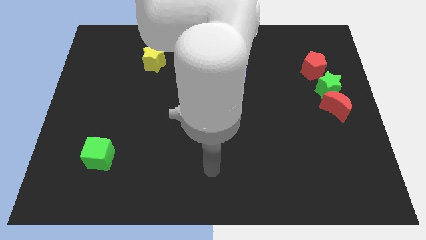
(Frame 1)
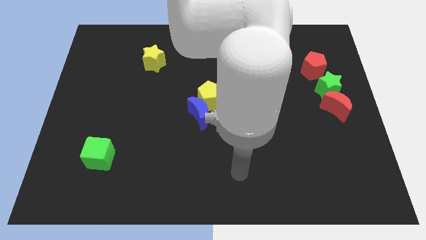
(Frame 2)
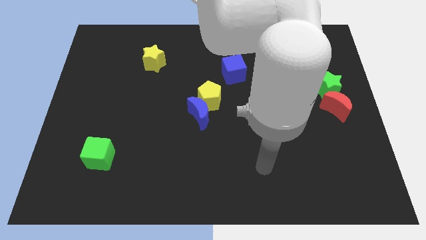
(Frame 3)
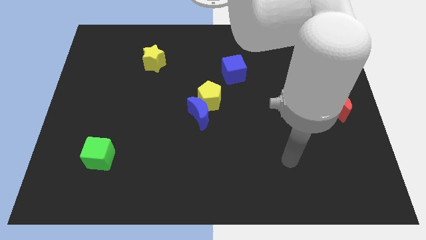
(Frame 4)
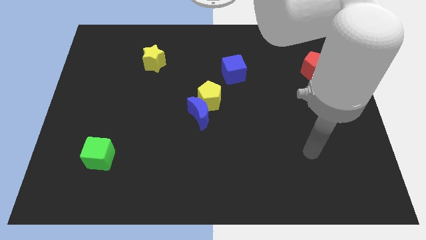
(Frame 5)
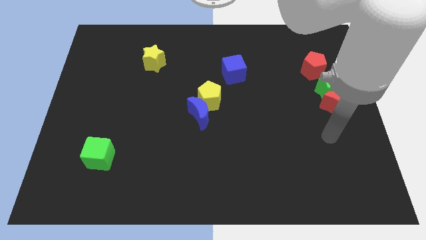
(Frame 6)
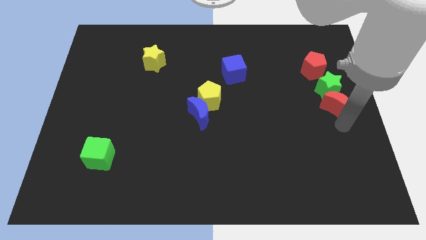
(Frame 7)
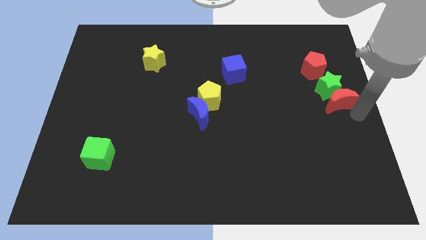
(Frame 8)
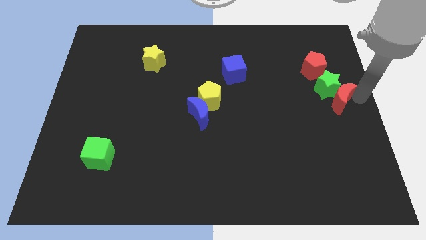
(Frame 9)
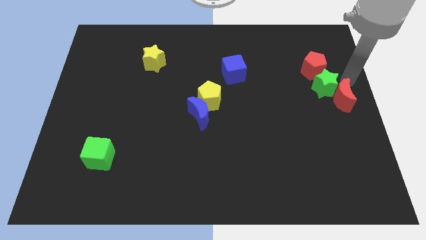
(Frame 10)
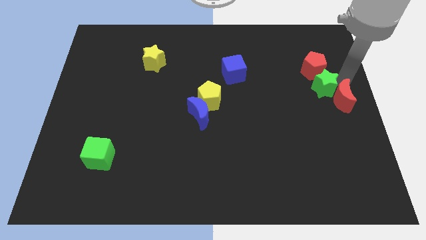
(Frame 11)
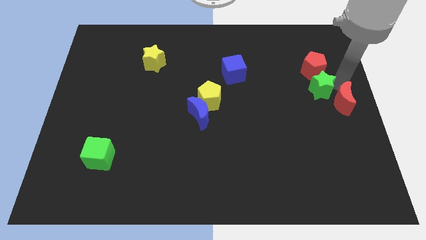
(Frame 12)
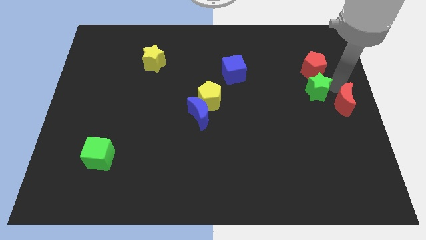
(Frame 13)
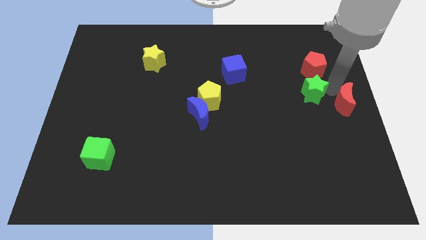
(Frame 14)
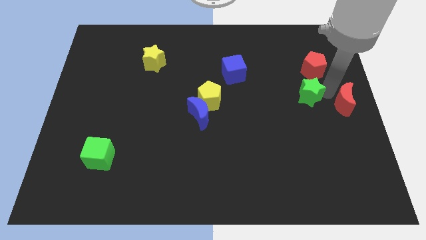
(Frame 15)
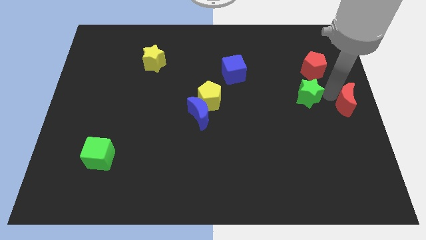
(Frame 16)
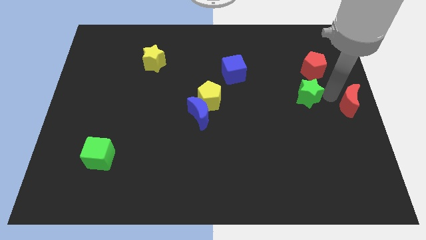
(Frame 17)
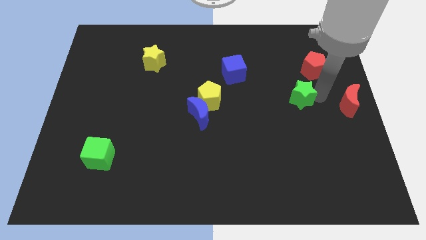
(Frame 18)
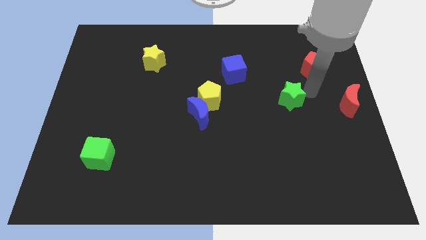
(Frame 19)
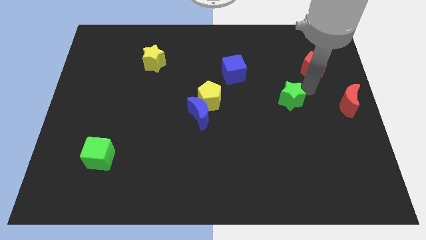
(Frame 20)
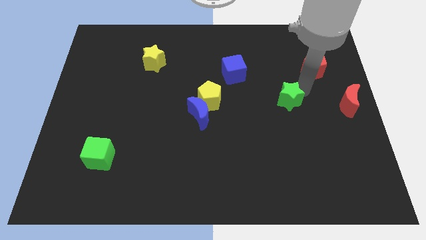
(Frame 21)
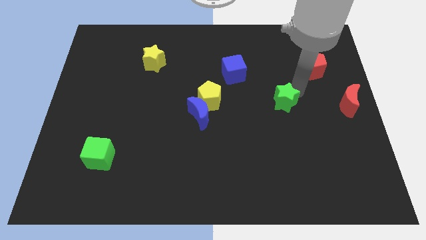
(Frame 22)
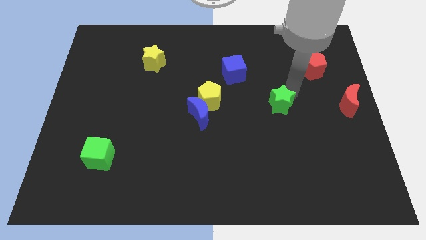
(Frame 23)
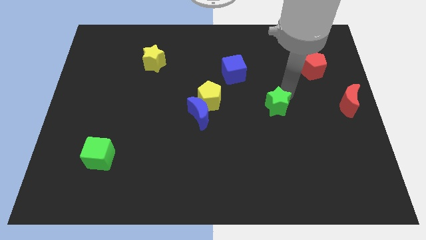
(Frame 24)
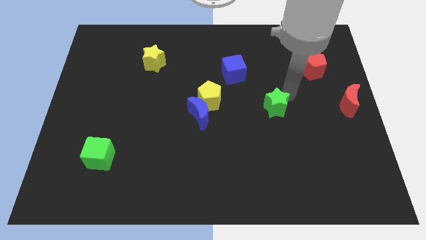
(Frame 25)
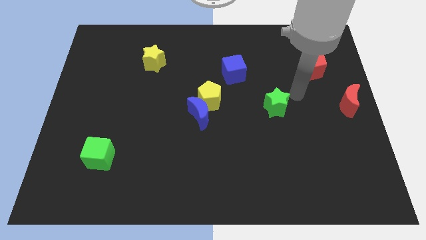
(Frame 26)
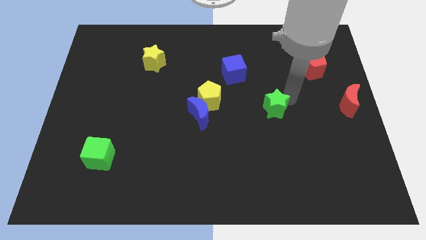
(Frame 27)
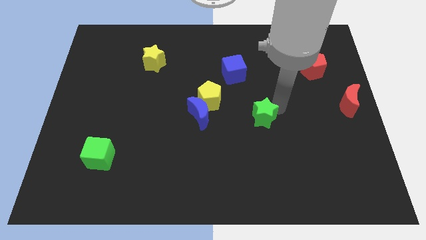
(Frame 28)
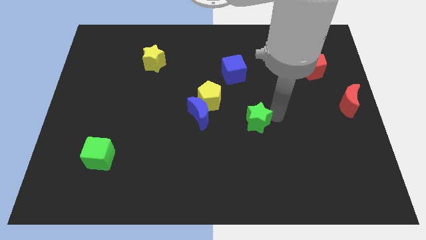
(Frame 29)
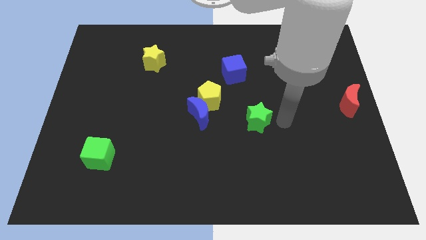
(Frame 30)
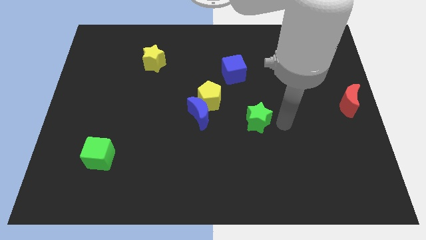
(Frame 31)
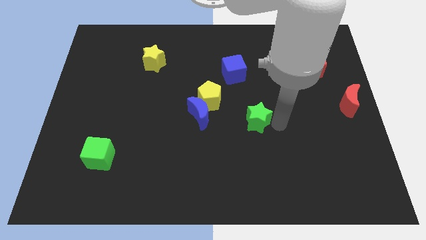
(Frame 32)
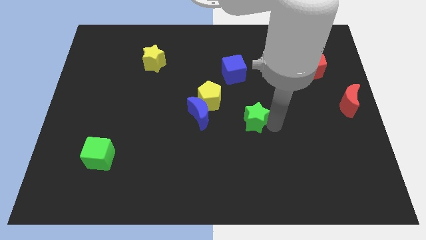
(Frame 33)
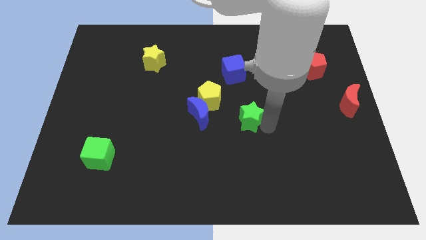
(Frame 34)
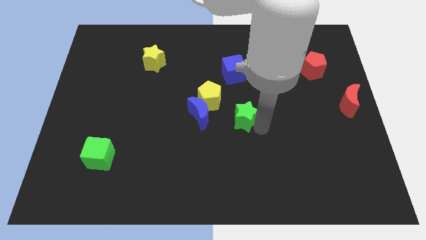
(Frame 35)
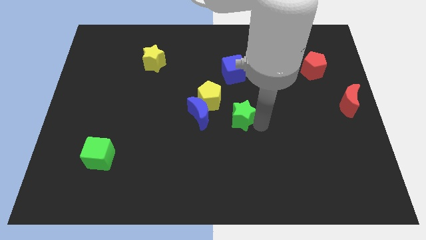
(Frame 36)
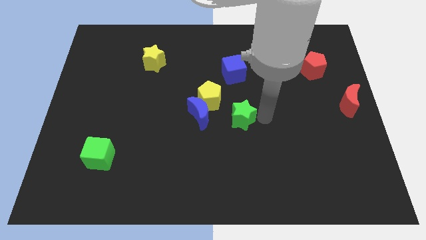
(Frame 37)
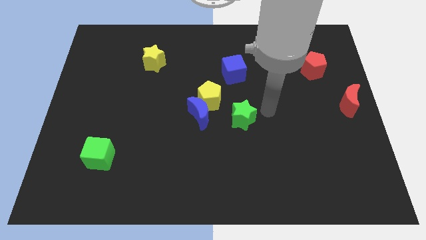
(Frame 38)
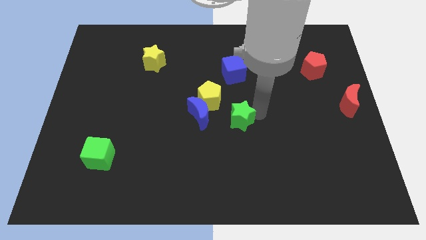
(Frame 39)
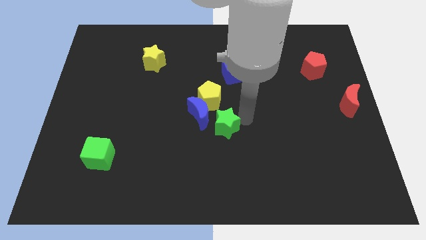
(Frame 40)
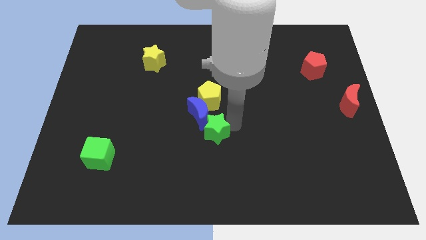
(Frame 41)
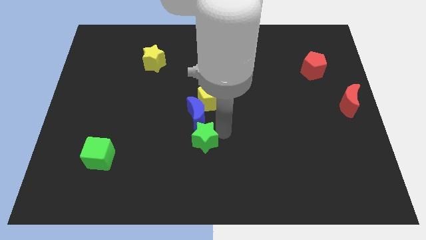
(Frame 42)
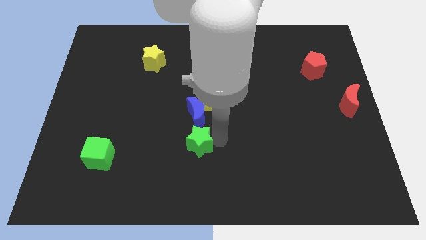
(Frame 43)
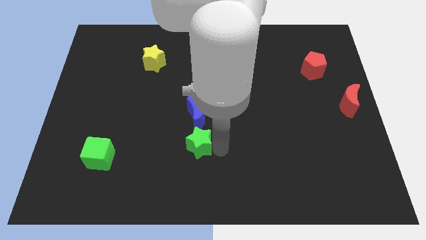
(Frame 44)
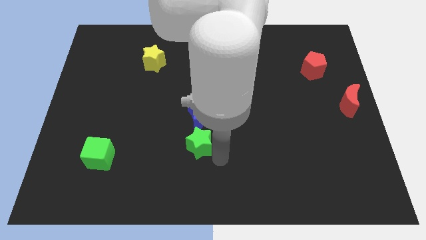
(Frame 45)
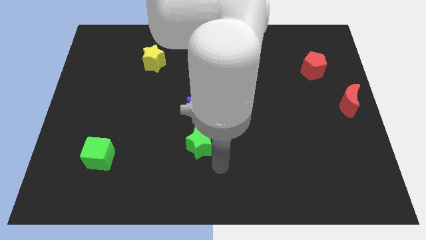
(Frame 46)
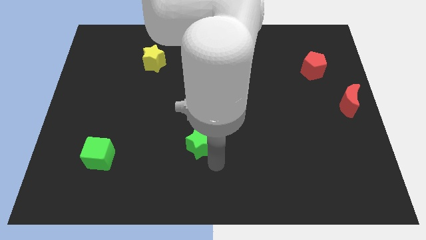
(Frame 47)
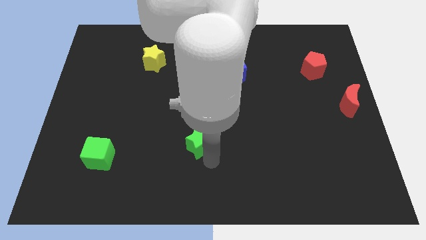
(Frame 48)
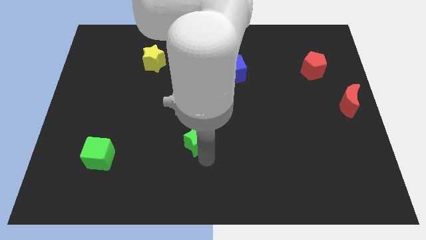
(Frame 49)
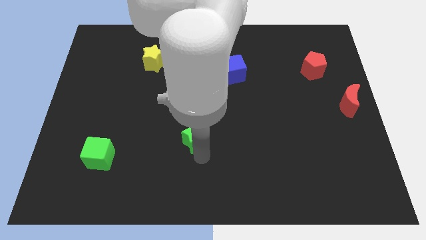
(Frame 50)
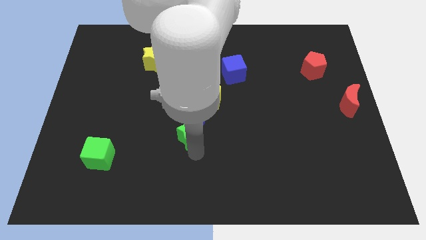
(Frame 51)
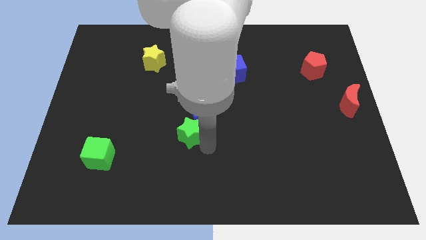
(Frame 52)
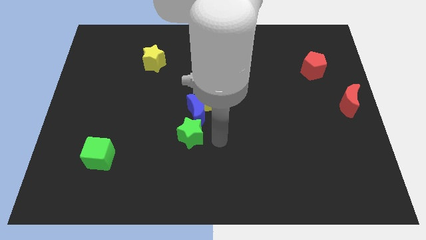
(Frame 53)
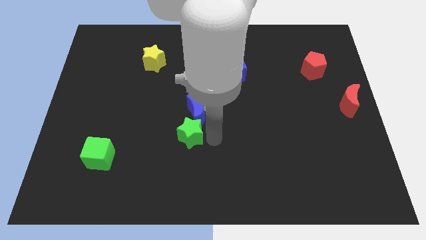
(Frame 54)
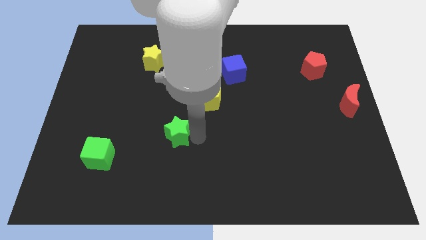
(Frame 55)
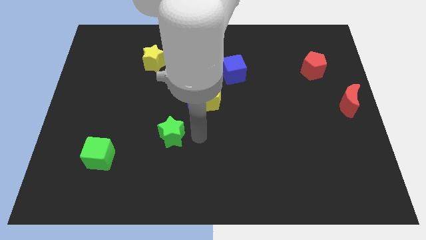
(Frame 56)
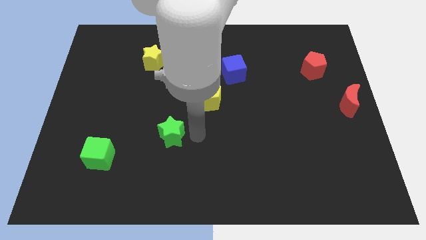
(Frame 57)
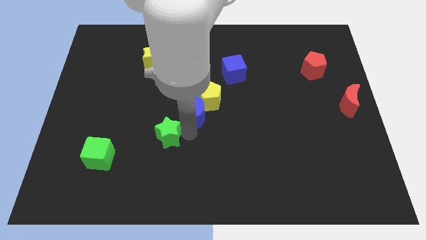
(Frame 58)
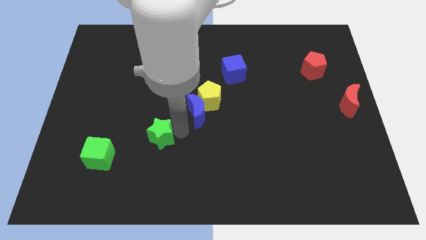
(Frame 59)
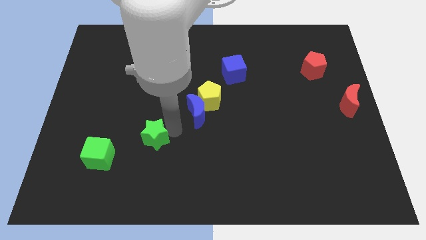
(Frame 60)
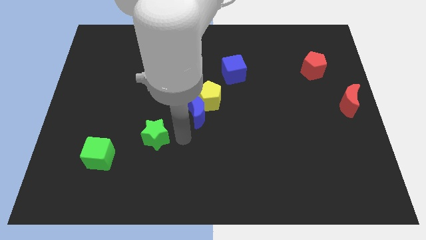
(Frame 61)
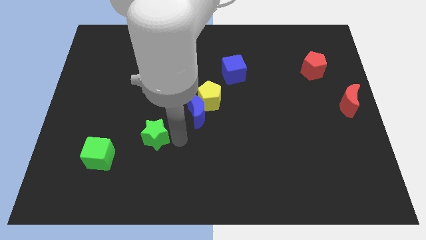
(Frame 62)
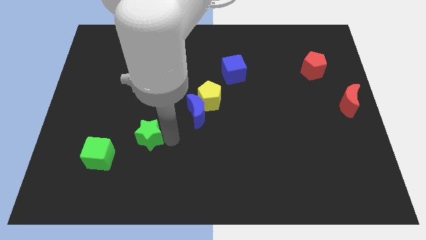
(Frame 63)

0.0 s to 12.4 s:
push the green star to the top right of the green cube

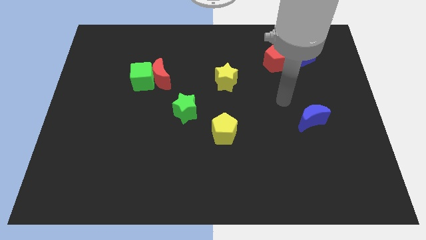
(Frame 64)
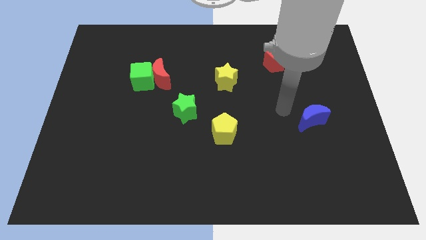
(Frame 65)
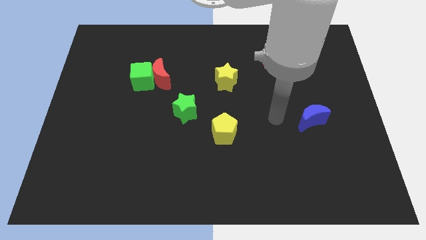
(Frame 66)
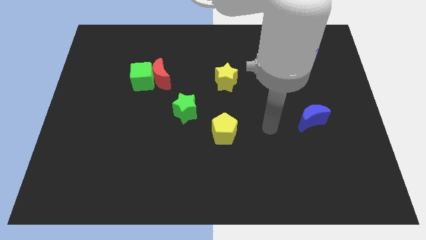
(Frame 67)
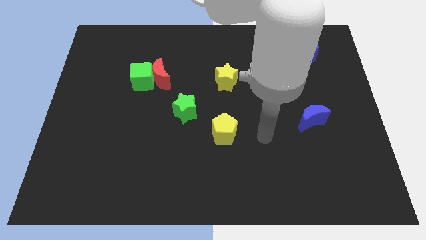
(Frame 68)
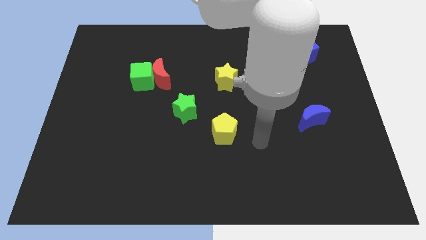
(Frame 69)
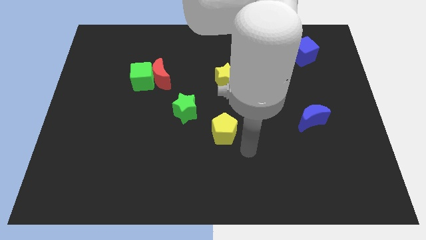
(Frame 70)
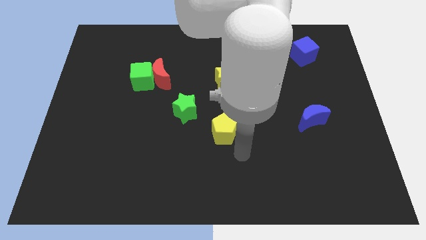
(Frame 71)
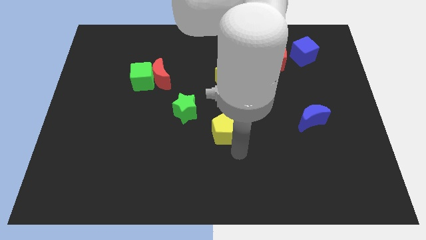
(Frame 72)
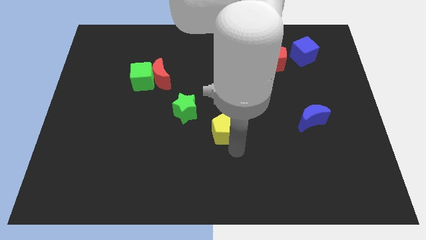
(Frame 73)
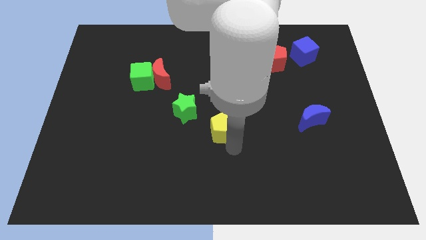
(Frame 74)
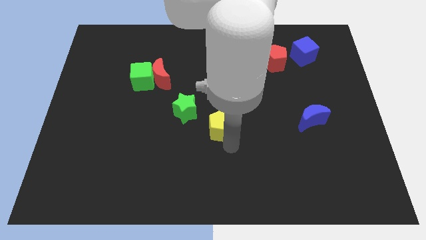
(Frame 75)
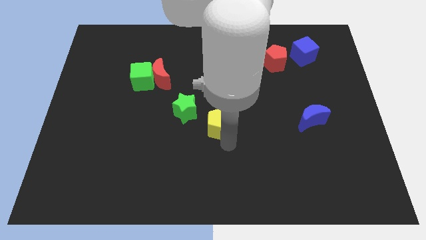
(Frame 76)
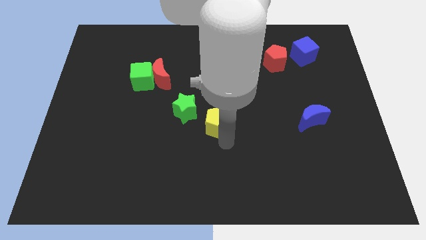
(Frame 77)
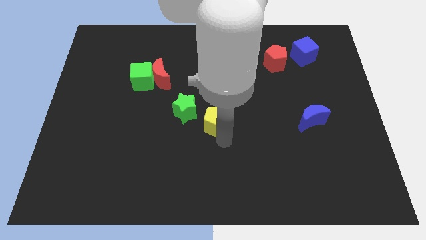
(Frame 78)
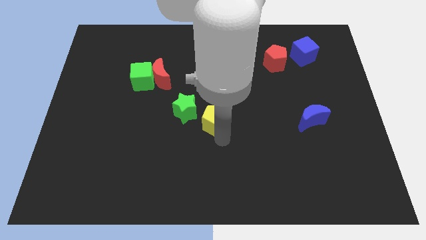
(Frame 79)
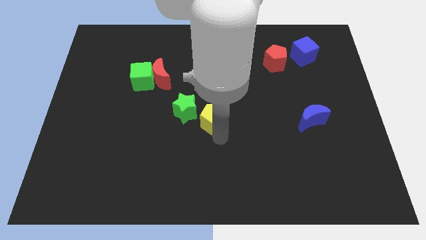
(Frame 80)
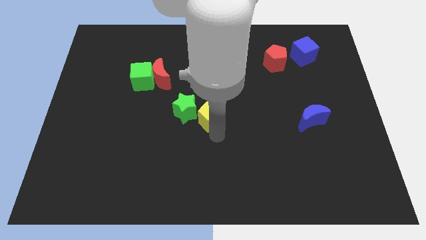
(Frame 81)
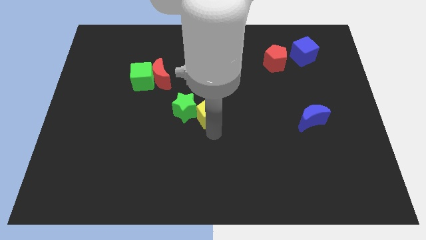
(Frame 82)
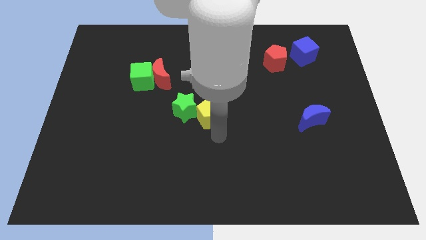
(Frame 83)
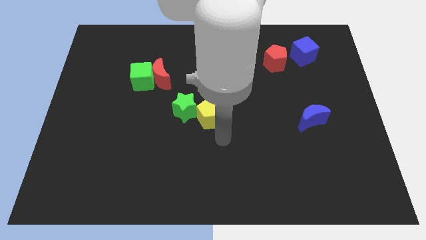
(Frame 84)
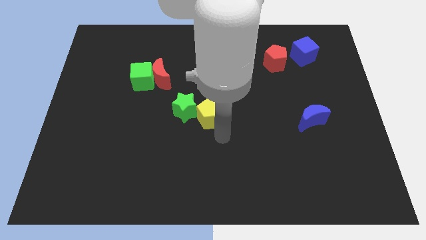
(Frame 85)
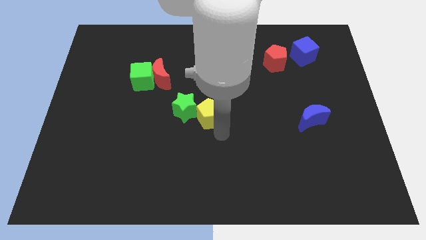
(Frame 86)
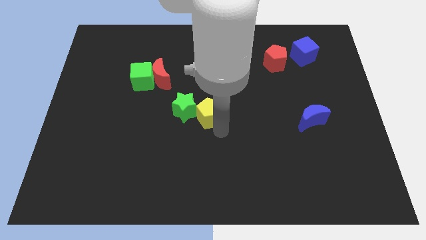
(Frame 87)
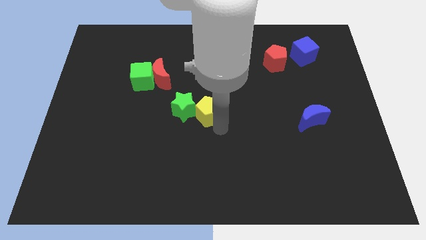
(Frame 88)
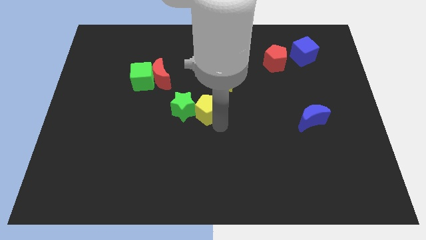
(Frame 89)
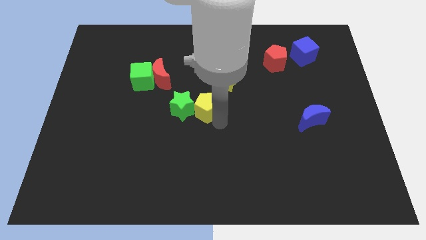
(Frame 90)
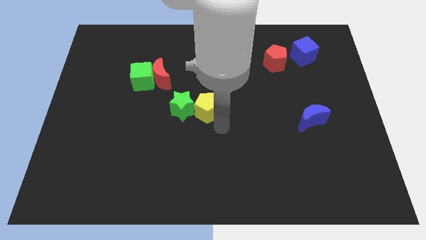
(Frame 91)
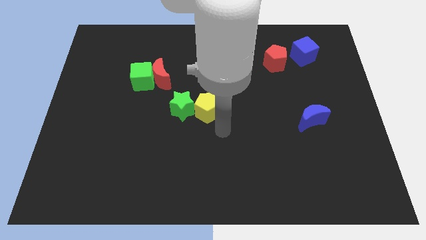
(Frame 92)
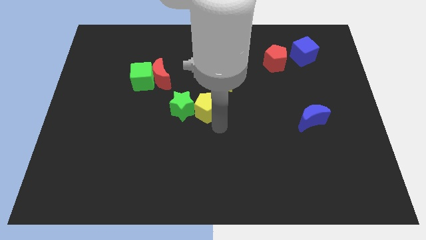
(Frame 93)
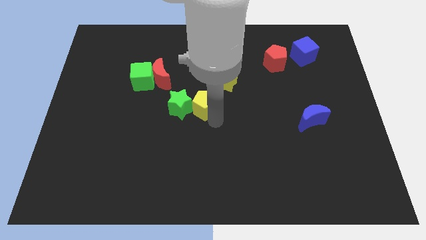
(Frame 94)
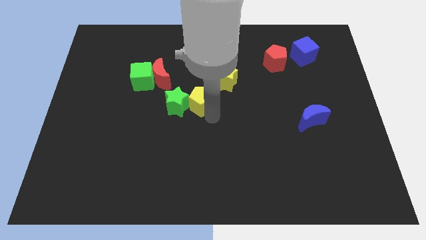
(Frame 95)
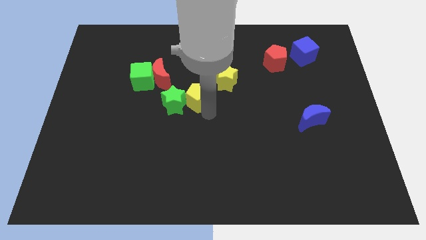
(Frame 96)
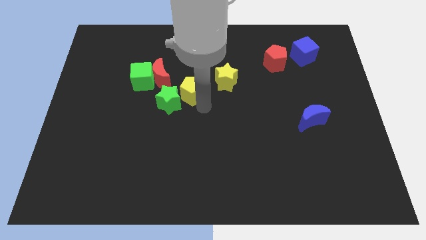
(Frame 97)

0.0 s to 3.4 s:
move the yellow pentagon right of the green cube
